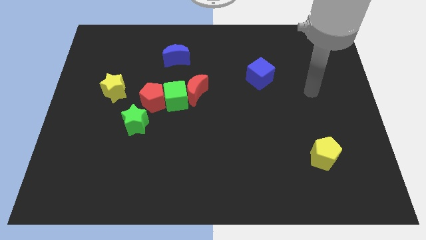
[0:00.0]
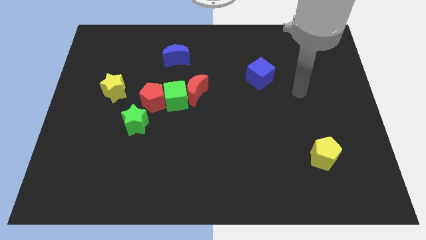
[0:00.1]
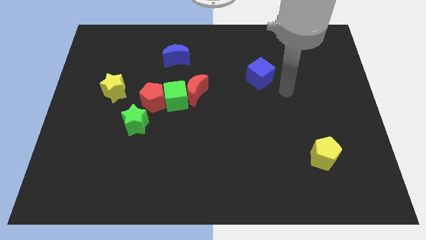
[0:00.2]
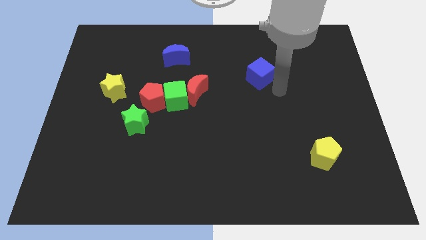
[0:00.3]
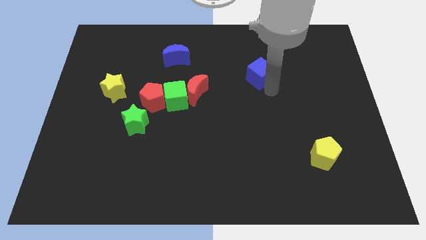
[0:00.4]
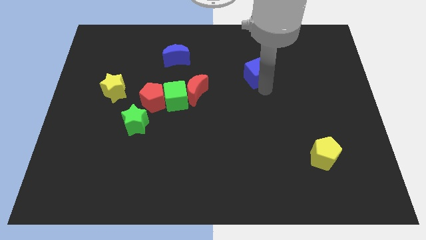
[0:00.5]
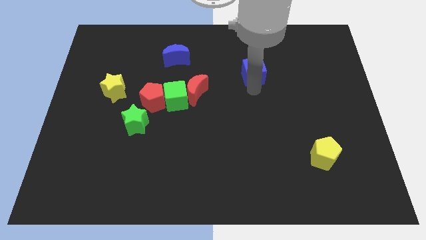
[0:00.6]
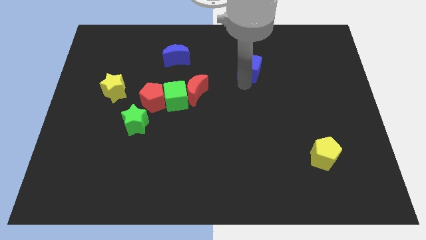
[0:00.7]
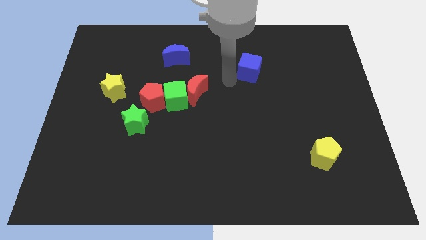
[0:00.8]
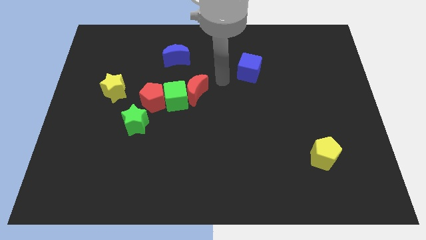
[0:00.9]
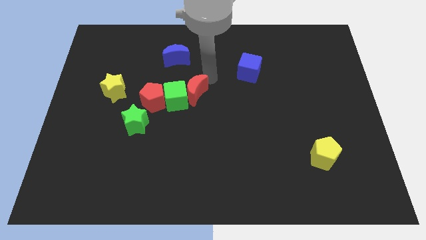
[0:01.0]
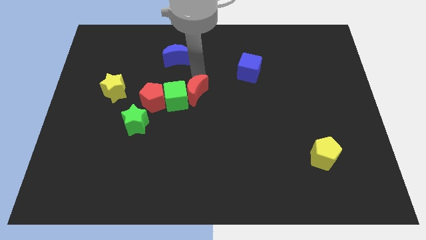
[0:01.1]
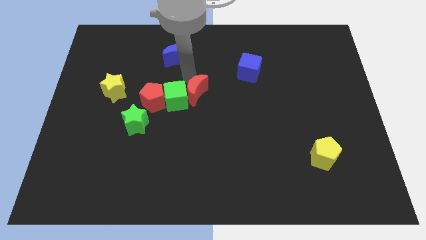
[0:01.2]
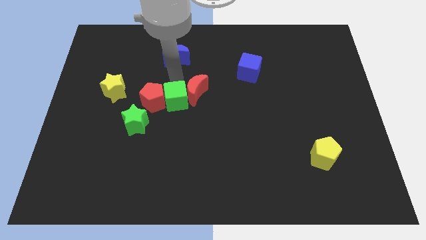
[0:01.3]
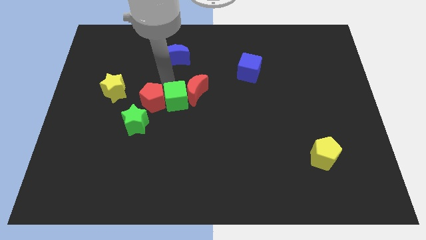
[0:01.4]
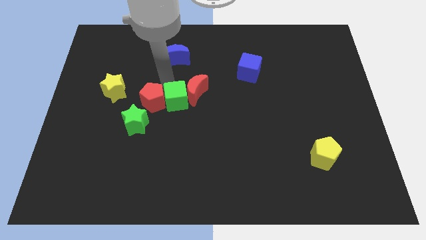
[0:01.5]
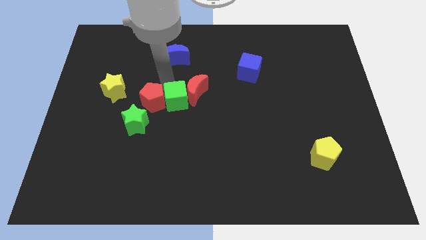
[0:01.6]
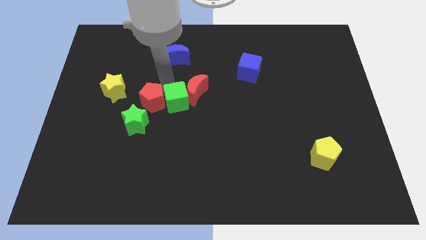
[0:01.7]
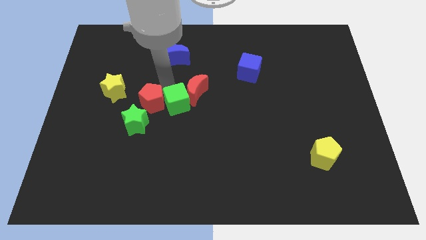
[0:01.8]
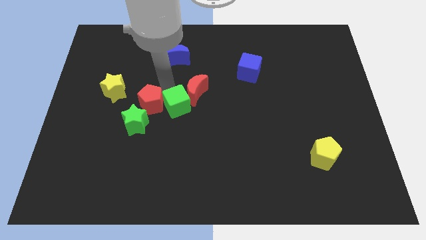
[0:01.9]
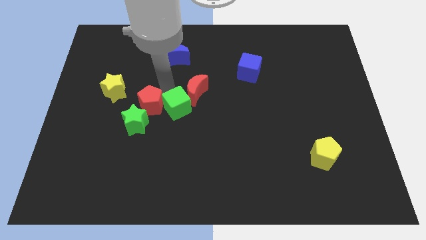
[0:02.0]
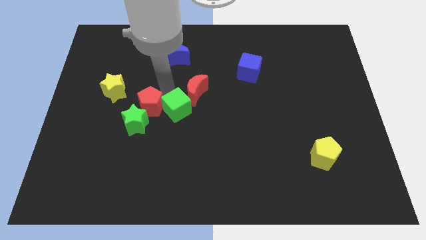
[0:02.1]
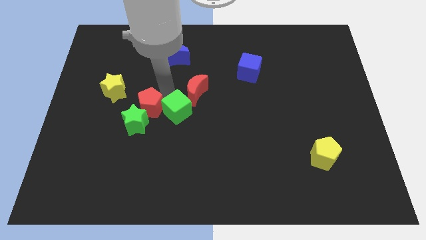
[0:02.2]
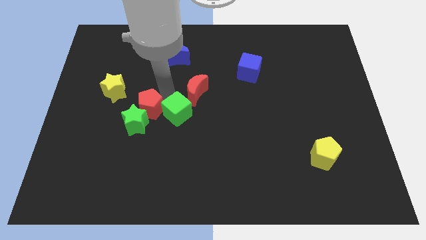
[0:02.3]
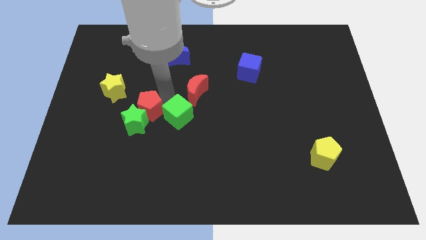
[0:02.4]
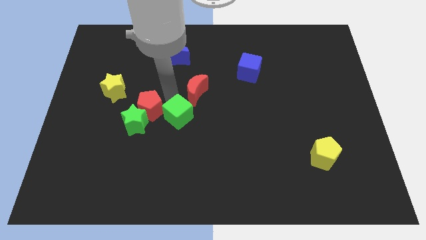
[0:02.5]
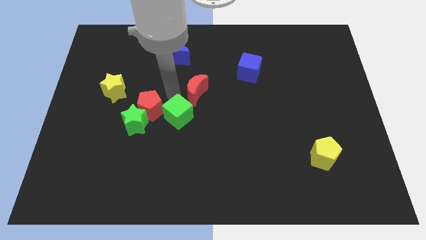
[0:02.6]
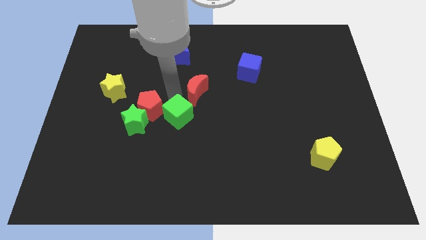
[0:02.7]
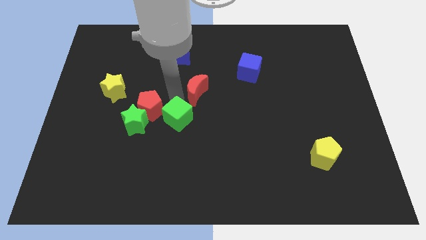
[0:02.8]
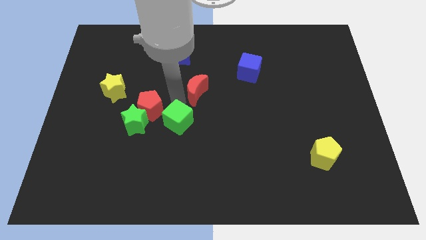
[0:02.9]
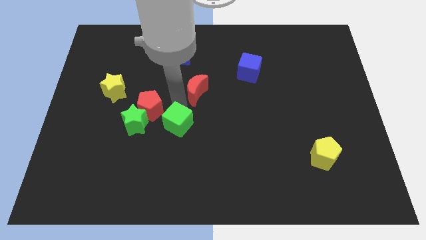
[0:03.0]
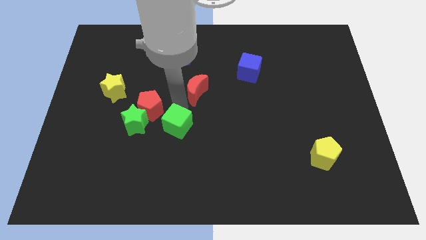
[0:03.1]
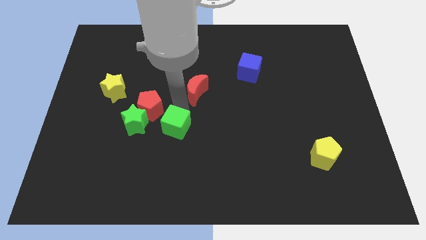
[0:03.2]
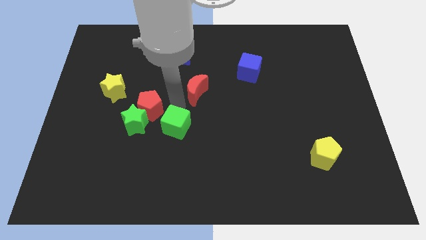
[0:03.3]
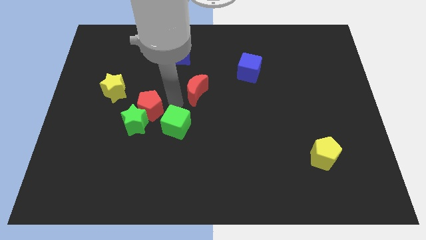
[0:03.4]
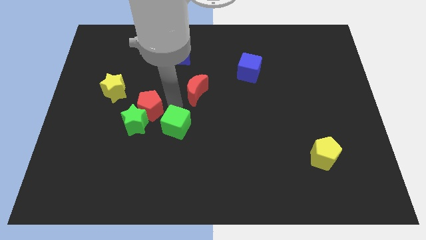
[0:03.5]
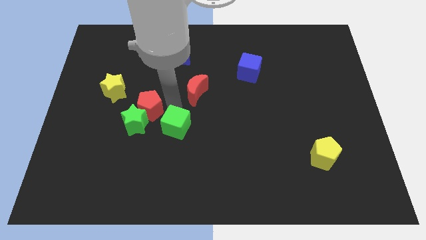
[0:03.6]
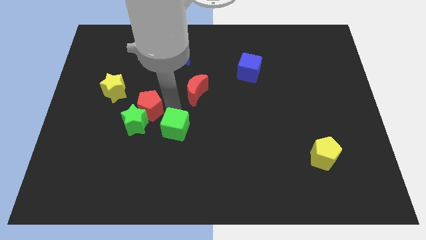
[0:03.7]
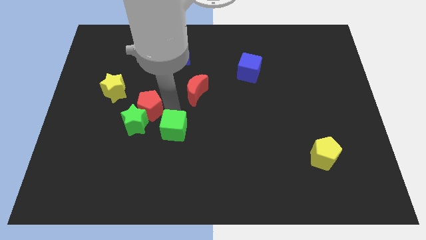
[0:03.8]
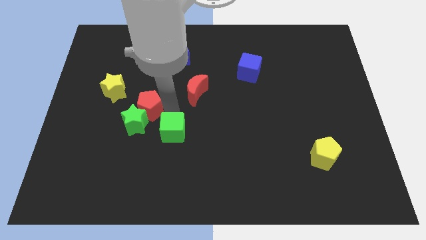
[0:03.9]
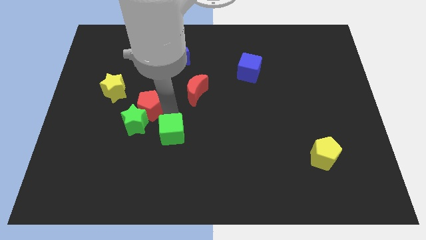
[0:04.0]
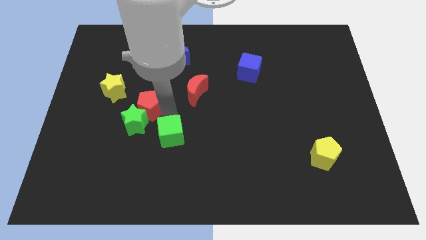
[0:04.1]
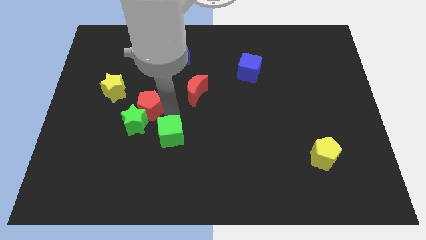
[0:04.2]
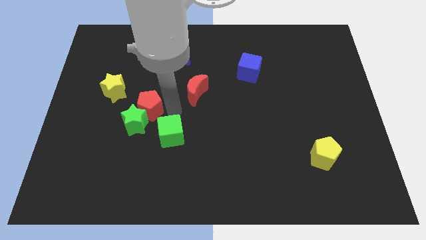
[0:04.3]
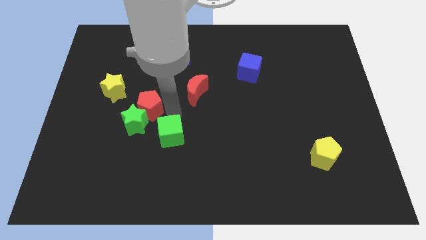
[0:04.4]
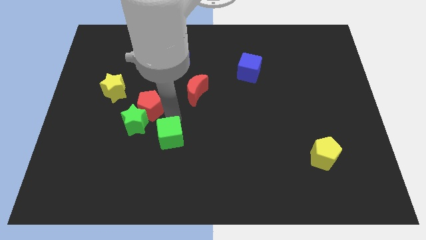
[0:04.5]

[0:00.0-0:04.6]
separate the green cube from the red moon and red pentagon

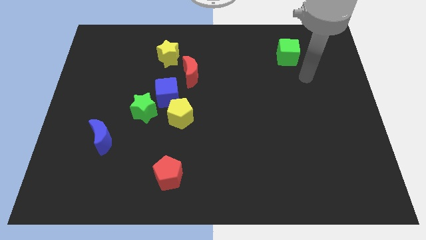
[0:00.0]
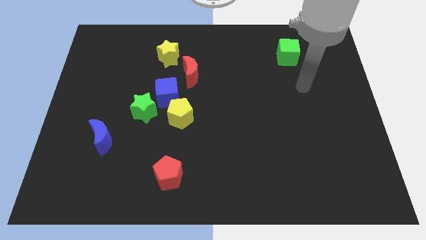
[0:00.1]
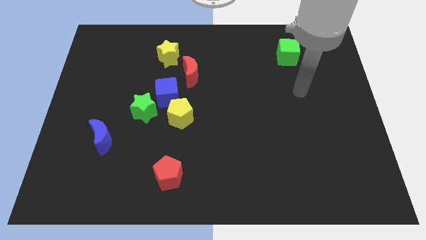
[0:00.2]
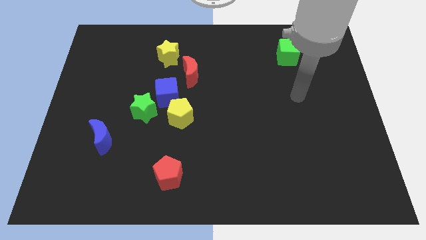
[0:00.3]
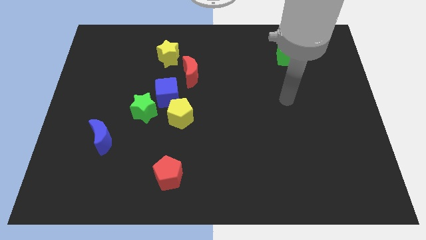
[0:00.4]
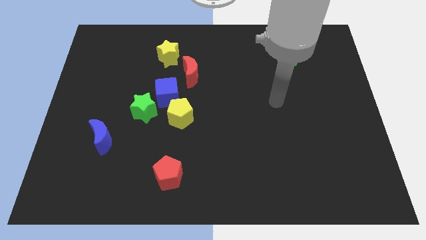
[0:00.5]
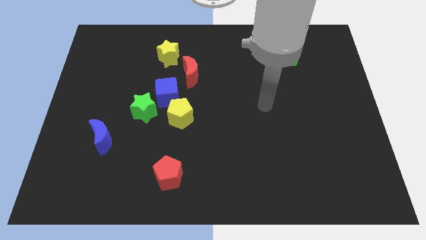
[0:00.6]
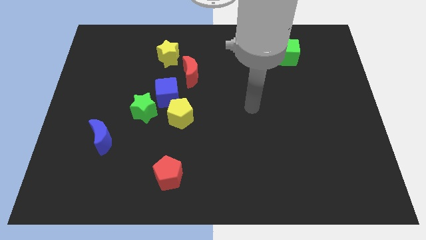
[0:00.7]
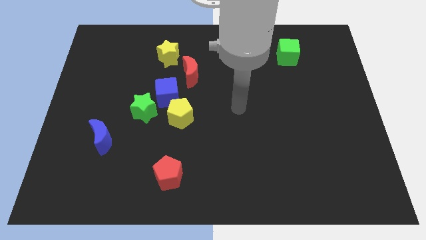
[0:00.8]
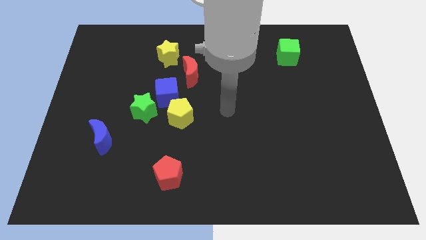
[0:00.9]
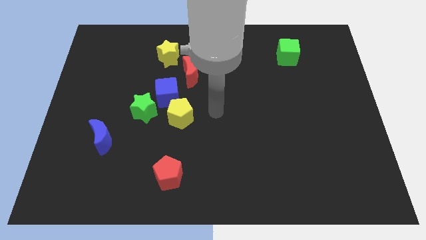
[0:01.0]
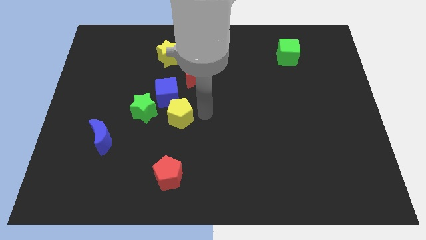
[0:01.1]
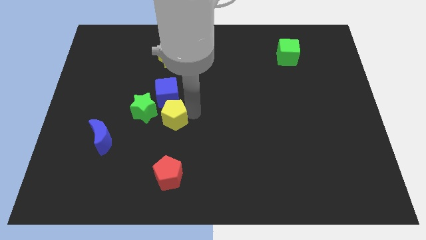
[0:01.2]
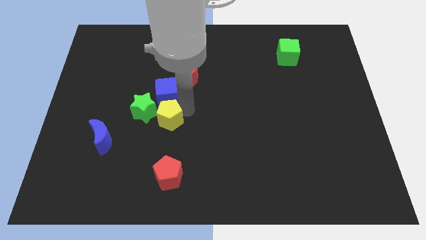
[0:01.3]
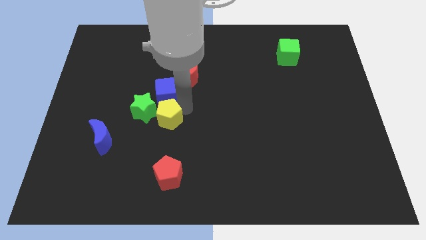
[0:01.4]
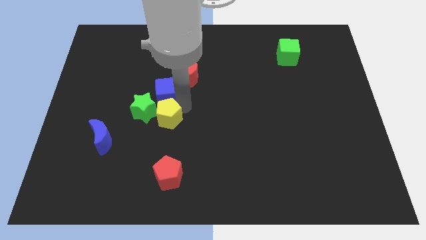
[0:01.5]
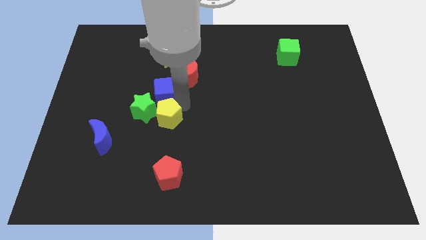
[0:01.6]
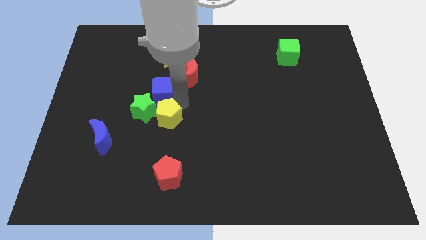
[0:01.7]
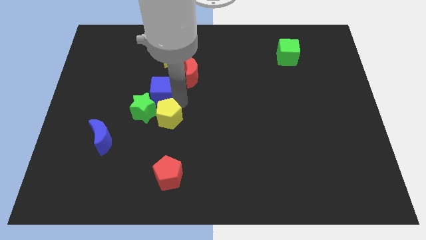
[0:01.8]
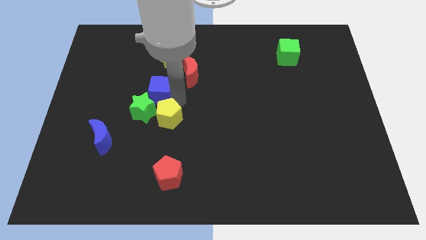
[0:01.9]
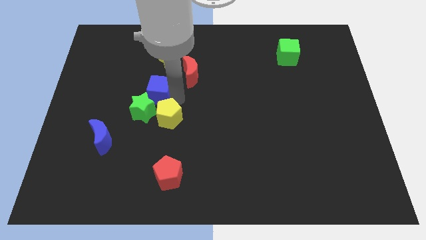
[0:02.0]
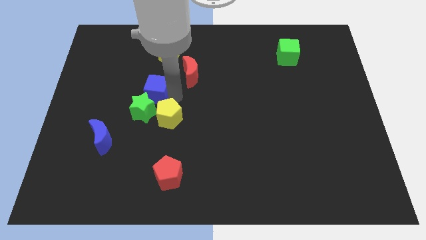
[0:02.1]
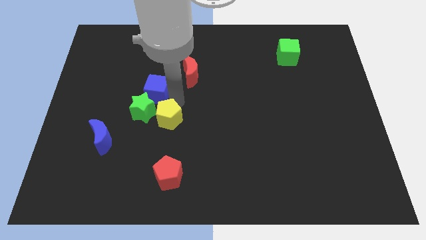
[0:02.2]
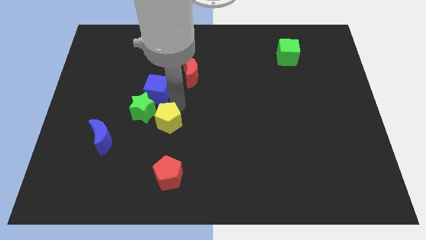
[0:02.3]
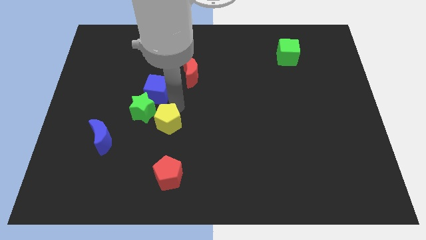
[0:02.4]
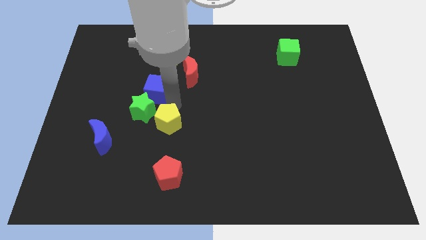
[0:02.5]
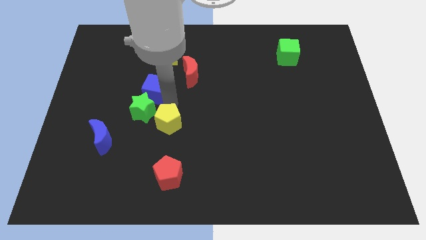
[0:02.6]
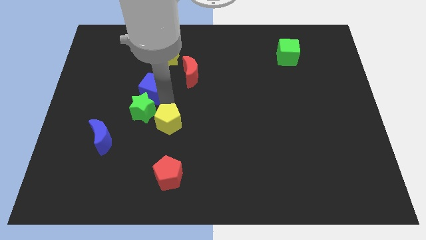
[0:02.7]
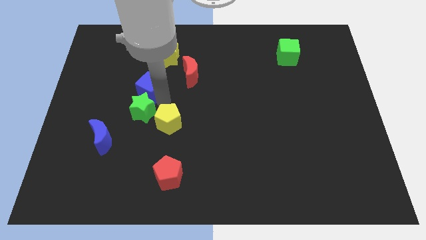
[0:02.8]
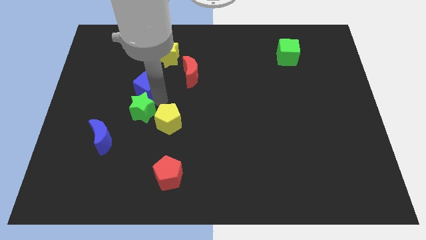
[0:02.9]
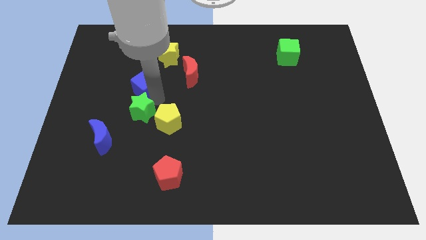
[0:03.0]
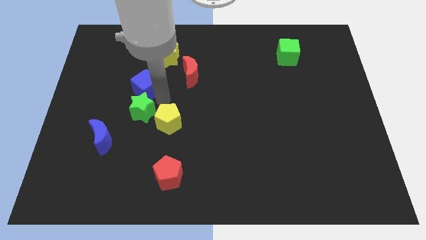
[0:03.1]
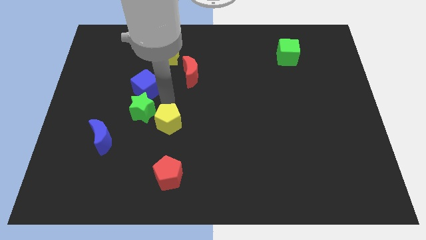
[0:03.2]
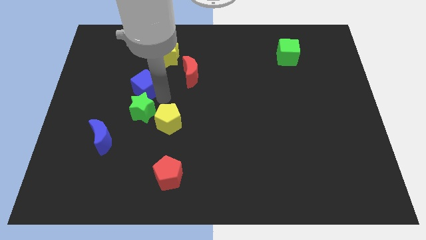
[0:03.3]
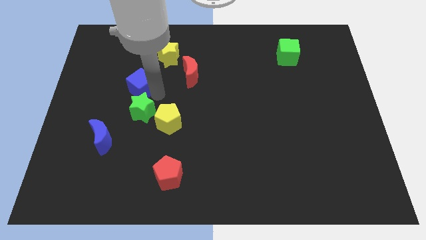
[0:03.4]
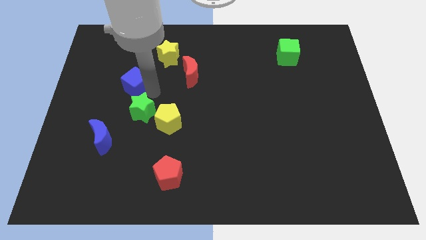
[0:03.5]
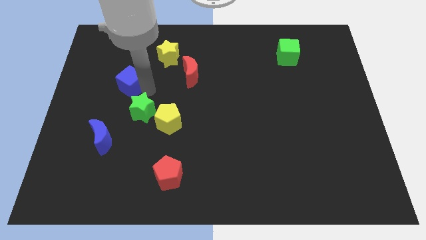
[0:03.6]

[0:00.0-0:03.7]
separate the blue cube from the group of blocks

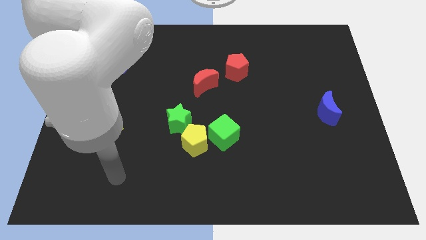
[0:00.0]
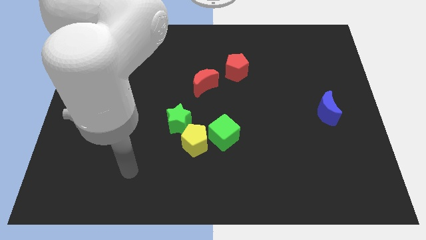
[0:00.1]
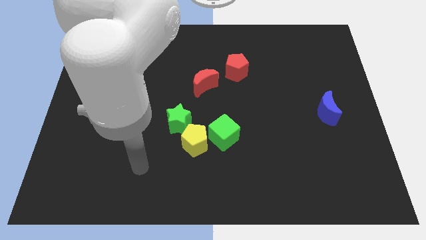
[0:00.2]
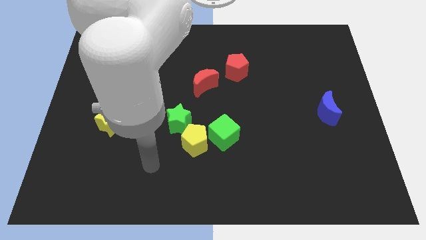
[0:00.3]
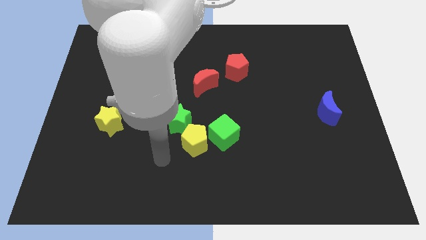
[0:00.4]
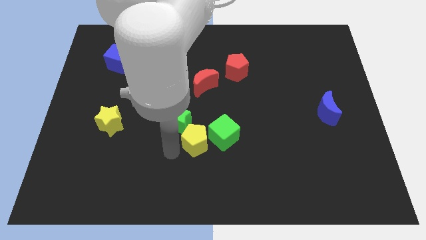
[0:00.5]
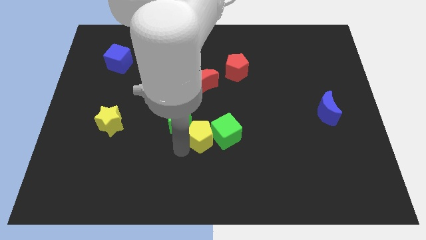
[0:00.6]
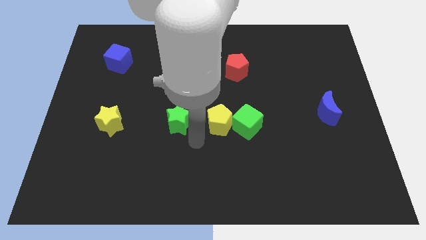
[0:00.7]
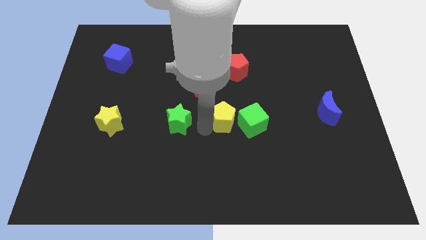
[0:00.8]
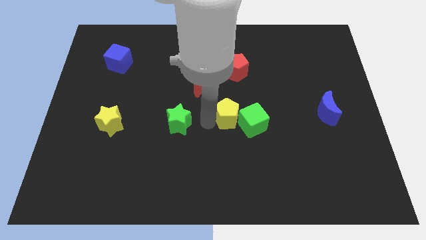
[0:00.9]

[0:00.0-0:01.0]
move the green star away from the yellow pentagon

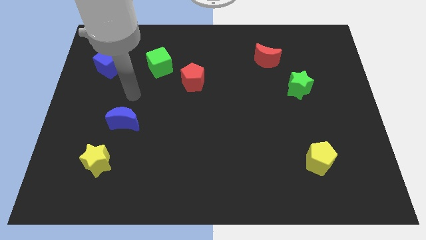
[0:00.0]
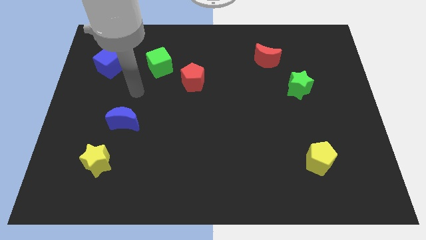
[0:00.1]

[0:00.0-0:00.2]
move the red pentagon away from the green cube
